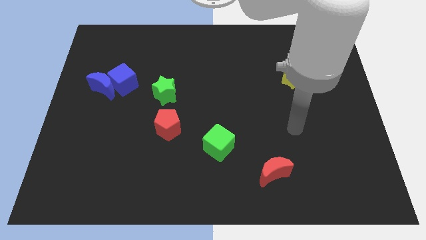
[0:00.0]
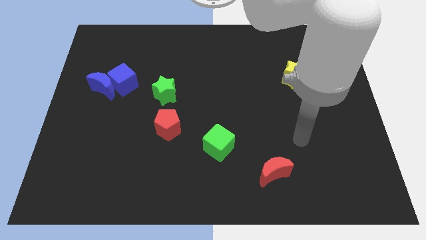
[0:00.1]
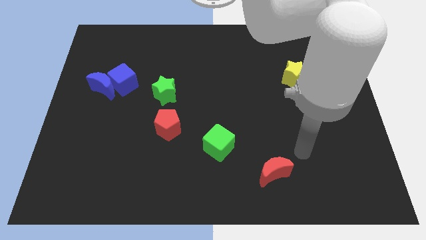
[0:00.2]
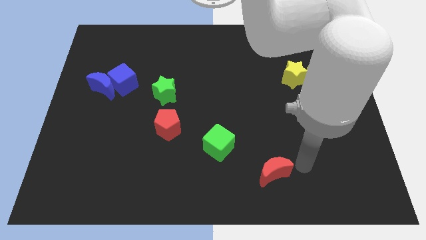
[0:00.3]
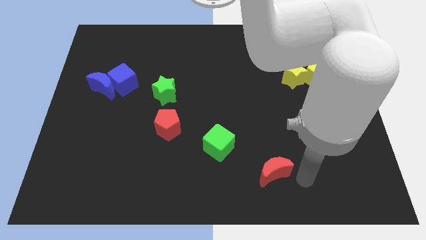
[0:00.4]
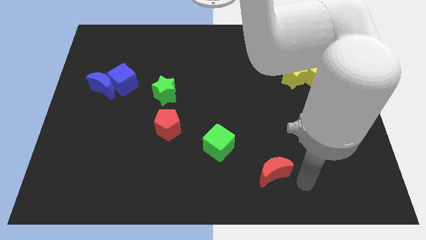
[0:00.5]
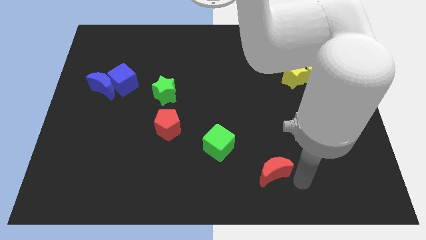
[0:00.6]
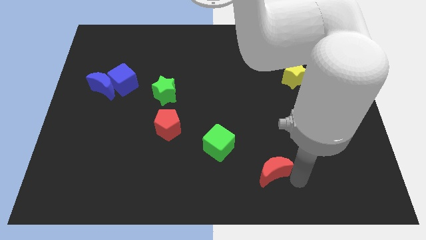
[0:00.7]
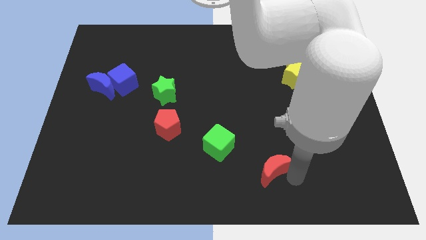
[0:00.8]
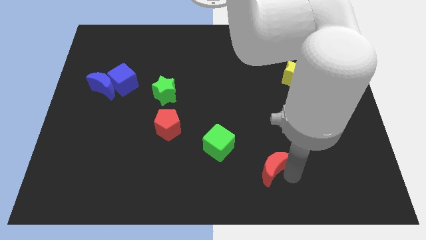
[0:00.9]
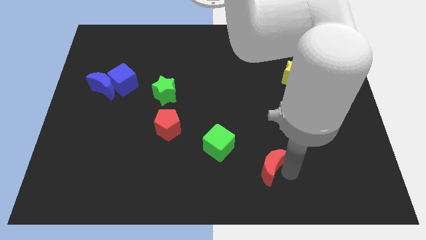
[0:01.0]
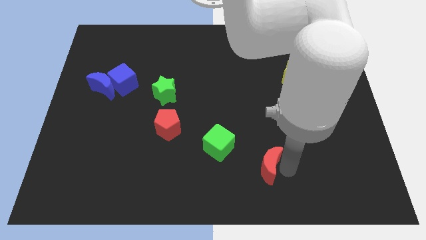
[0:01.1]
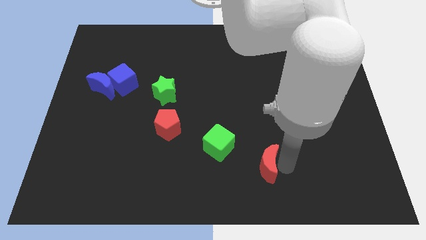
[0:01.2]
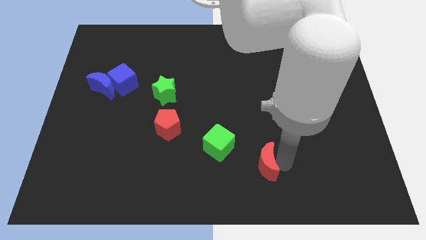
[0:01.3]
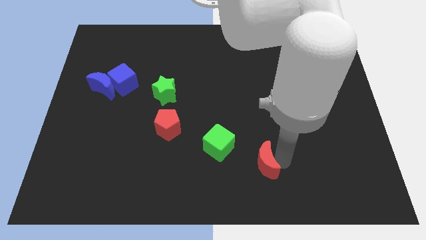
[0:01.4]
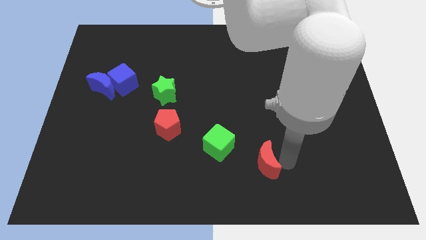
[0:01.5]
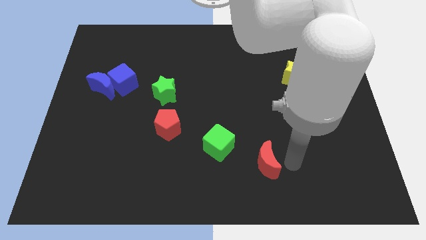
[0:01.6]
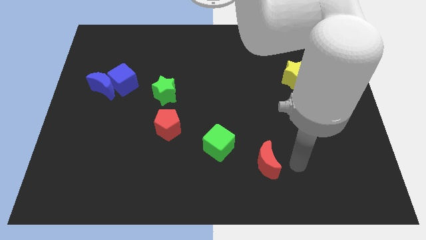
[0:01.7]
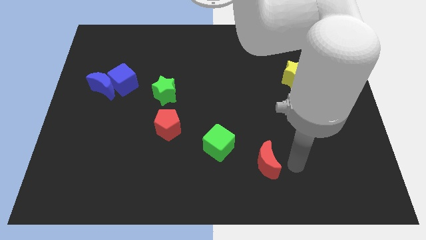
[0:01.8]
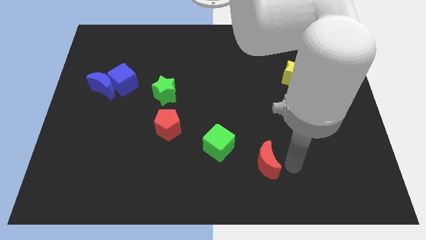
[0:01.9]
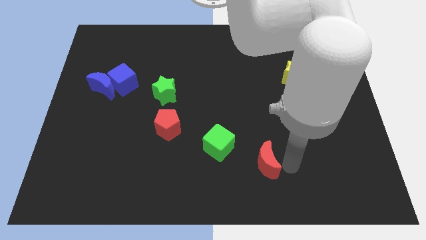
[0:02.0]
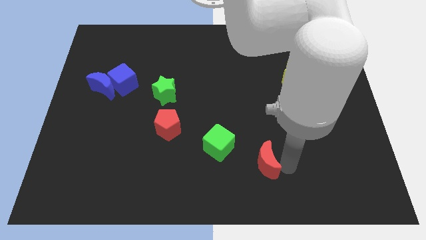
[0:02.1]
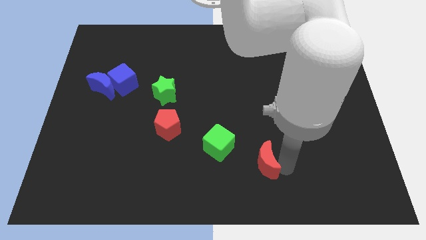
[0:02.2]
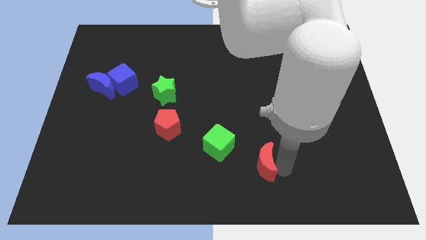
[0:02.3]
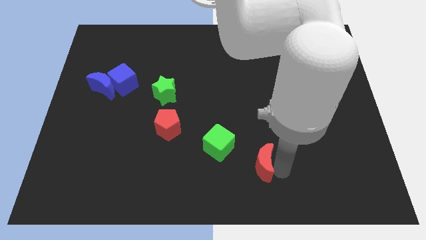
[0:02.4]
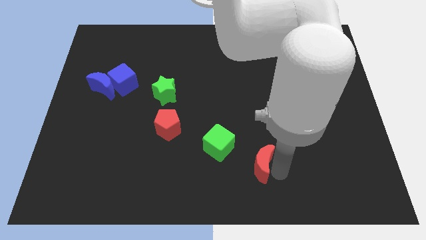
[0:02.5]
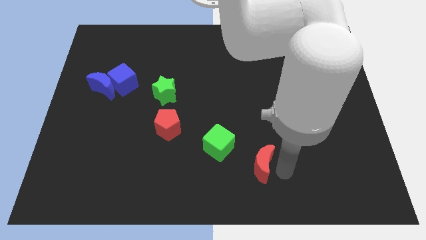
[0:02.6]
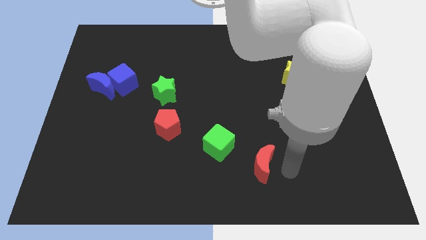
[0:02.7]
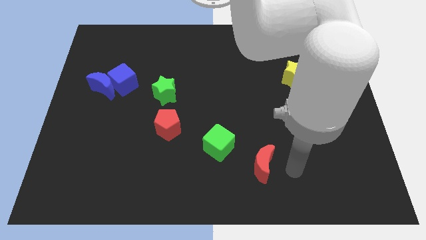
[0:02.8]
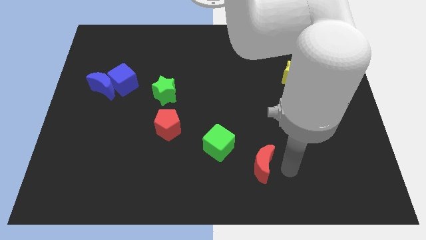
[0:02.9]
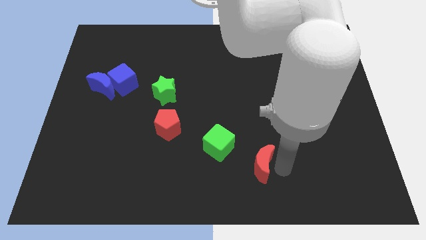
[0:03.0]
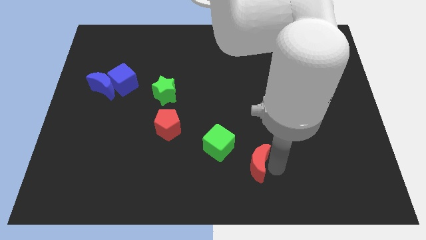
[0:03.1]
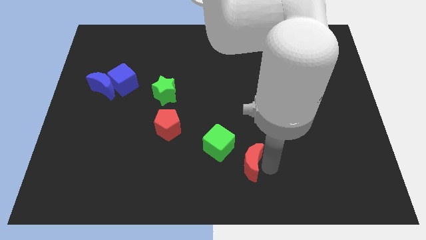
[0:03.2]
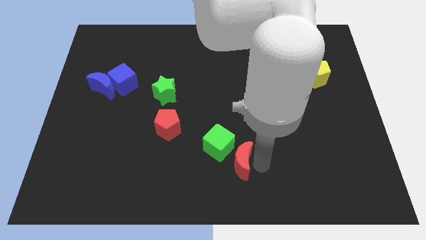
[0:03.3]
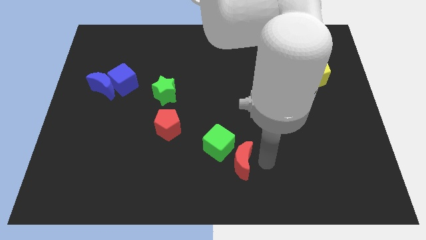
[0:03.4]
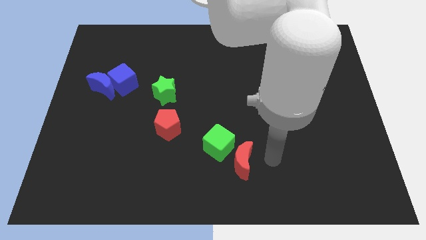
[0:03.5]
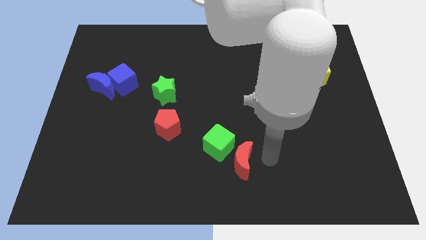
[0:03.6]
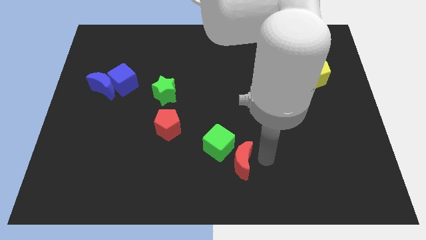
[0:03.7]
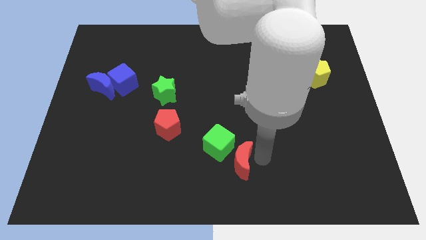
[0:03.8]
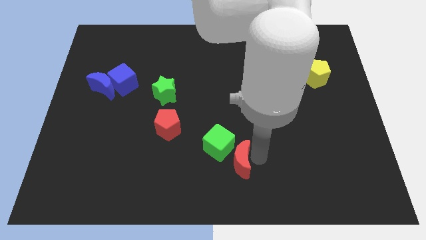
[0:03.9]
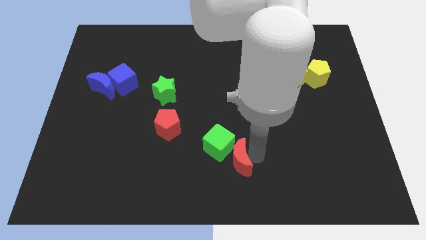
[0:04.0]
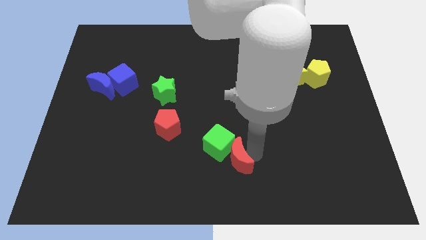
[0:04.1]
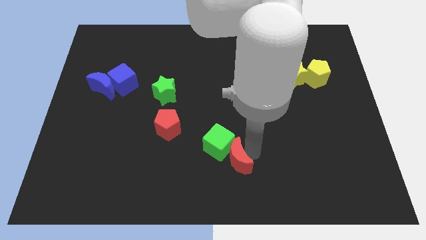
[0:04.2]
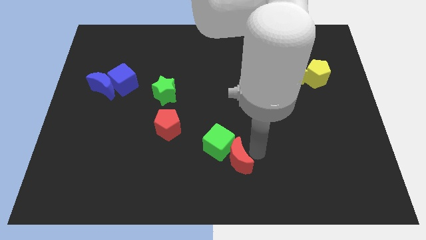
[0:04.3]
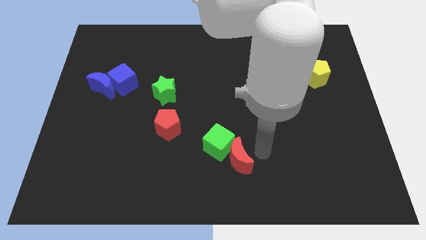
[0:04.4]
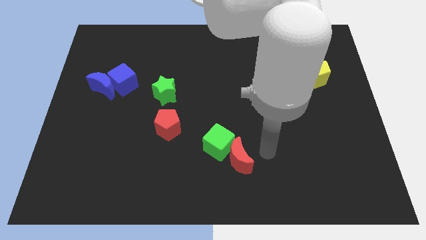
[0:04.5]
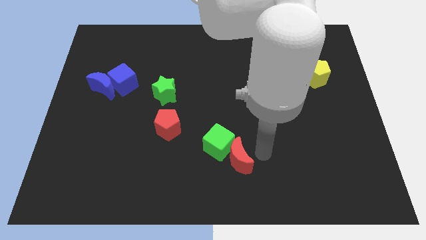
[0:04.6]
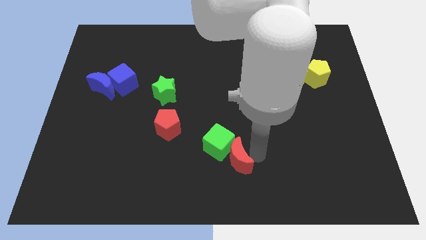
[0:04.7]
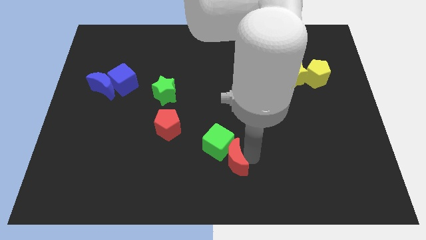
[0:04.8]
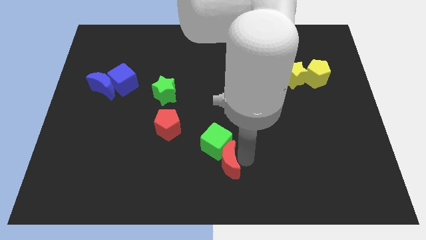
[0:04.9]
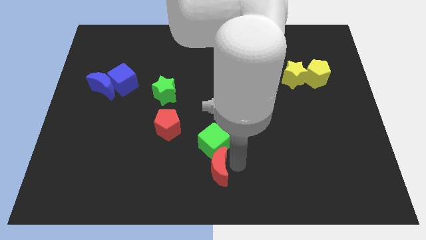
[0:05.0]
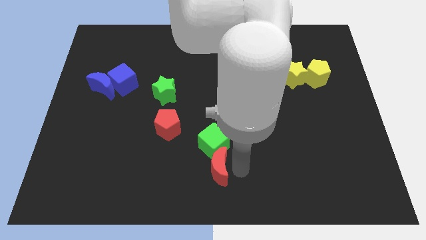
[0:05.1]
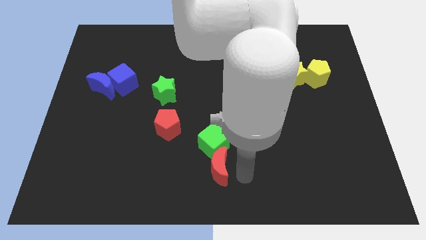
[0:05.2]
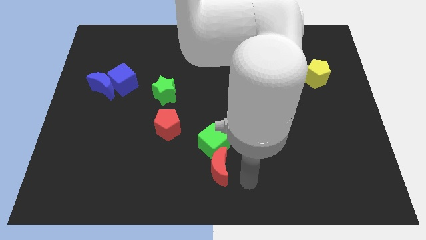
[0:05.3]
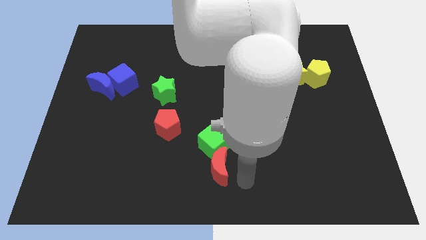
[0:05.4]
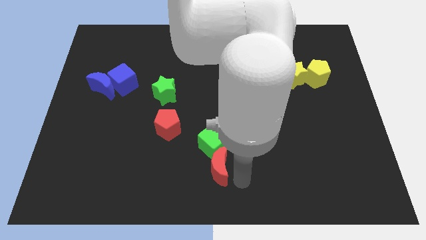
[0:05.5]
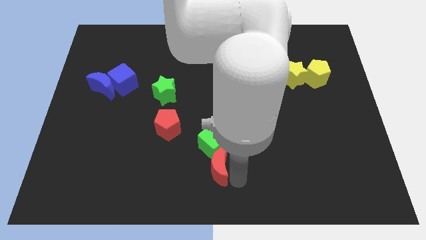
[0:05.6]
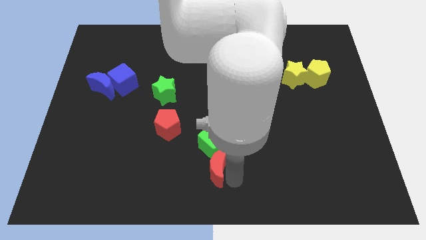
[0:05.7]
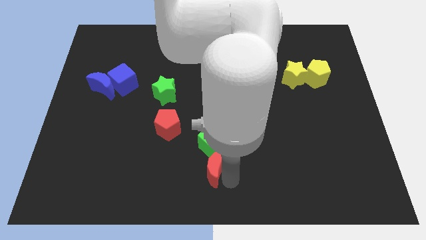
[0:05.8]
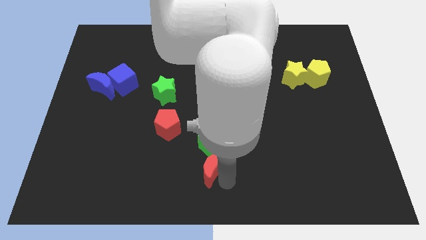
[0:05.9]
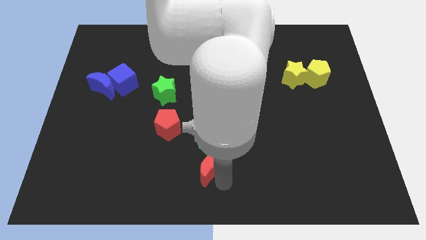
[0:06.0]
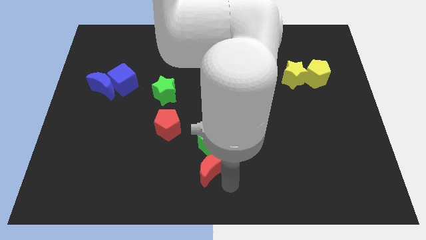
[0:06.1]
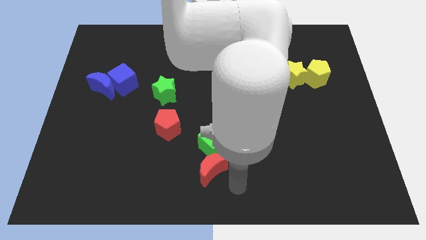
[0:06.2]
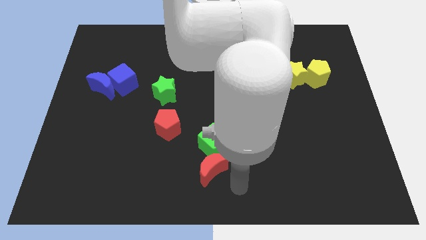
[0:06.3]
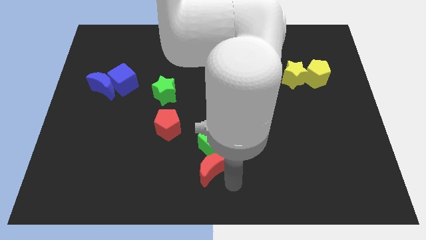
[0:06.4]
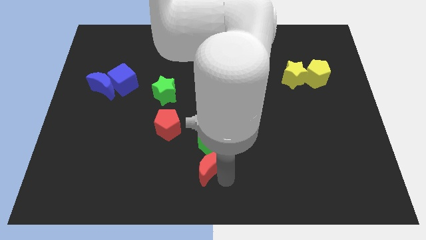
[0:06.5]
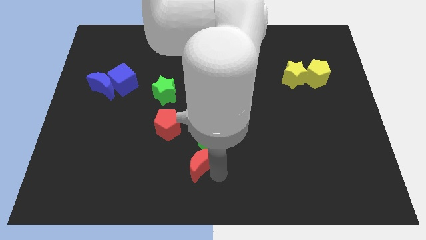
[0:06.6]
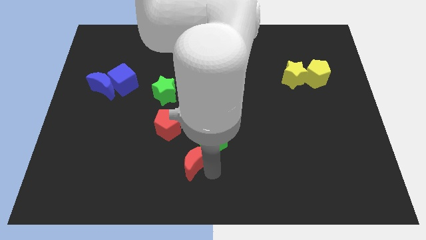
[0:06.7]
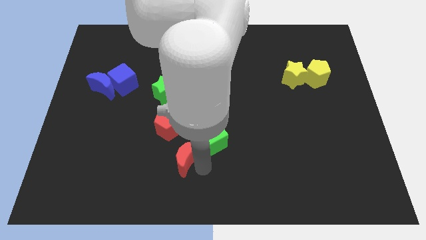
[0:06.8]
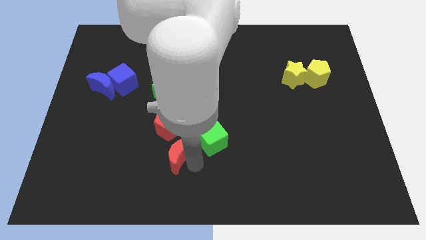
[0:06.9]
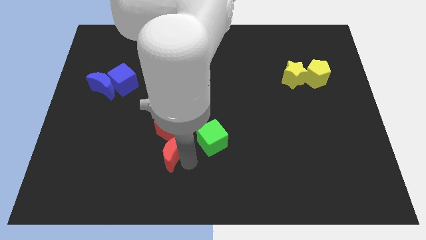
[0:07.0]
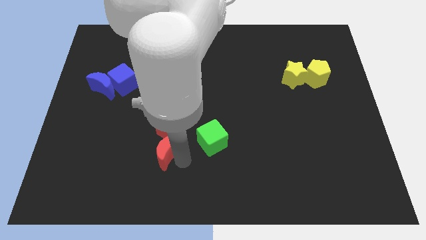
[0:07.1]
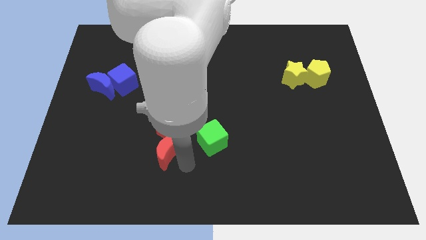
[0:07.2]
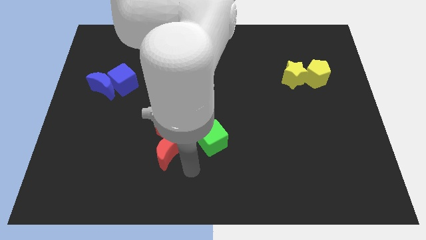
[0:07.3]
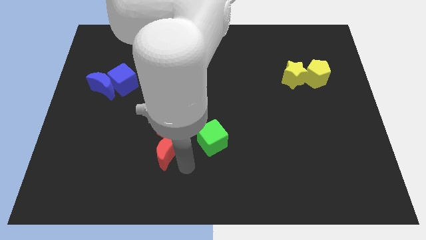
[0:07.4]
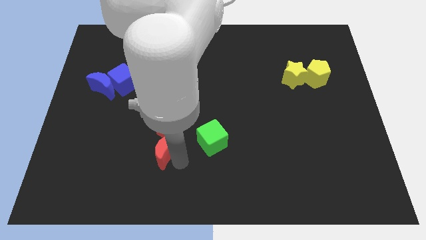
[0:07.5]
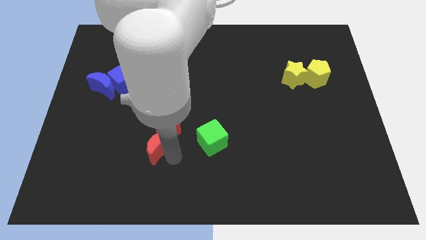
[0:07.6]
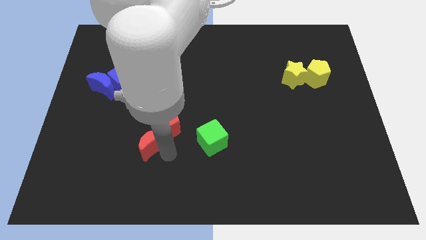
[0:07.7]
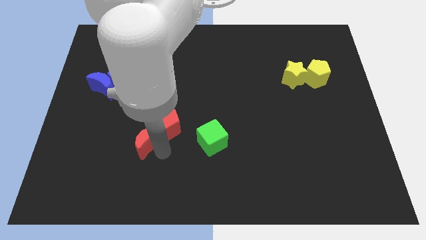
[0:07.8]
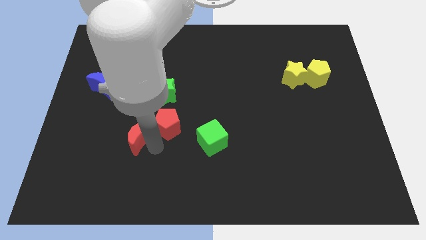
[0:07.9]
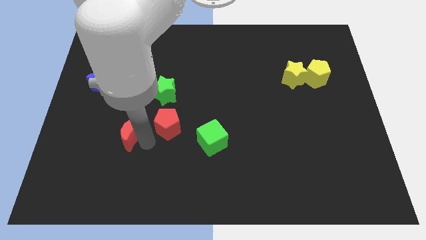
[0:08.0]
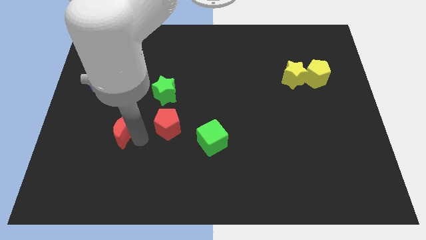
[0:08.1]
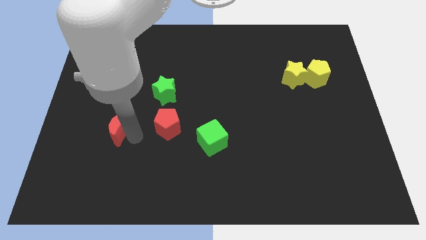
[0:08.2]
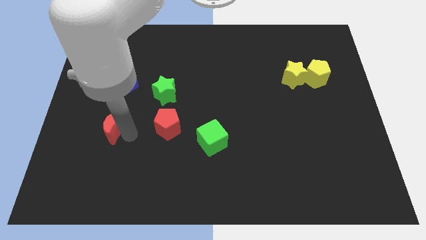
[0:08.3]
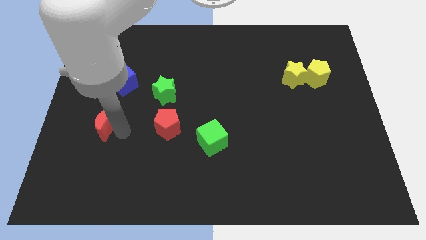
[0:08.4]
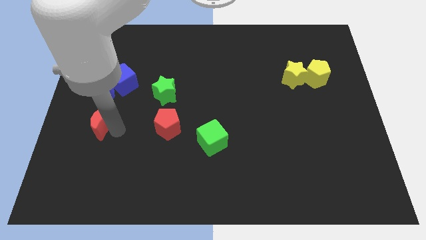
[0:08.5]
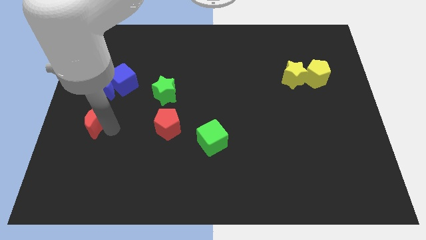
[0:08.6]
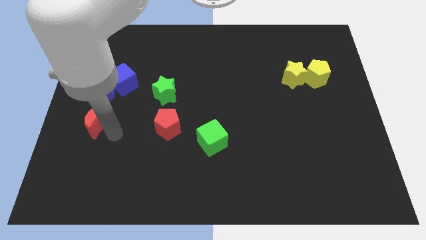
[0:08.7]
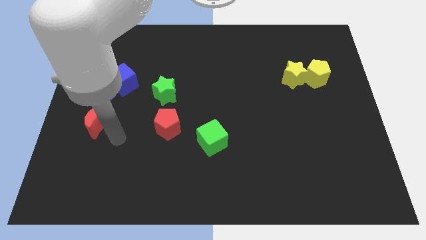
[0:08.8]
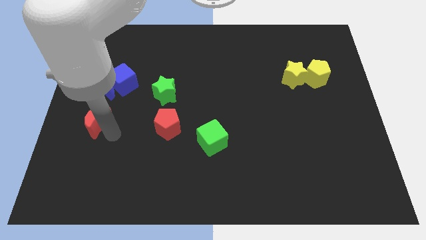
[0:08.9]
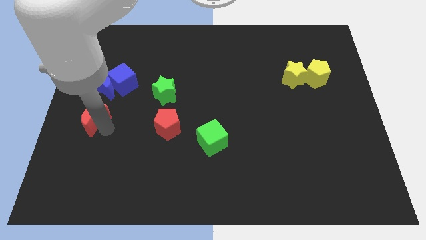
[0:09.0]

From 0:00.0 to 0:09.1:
push the red moon to the left side of the board
